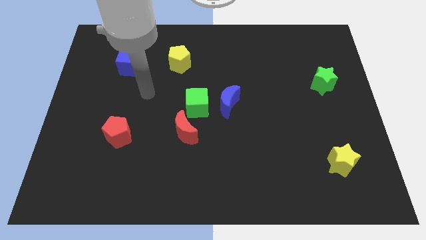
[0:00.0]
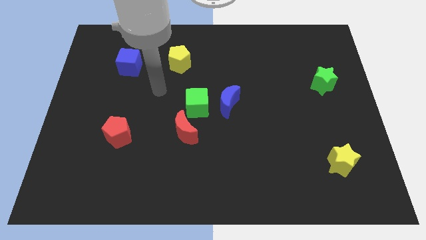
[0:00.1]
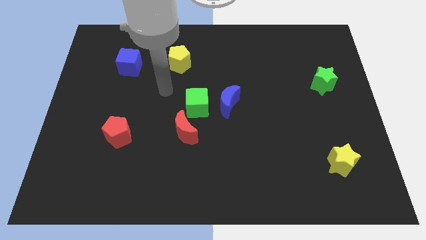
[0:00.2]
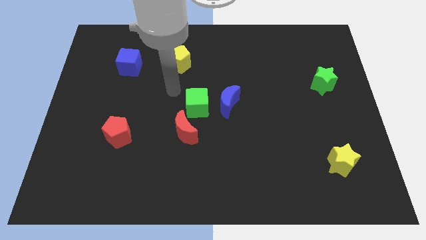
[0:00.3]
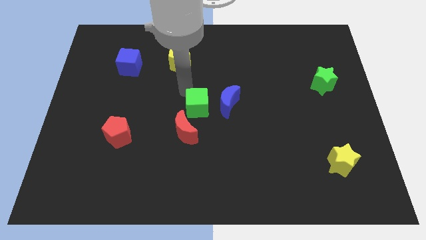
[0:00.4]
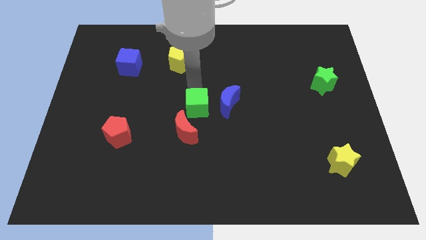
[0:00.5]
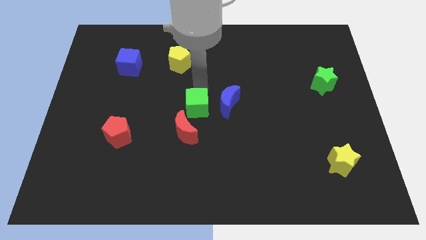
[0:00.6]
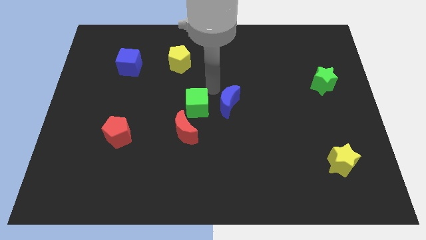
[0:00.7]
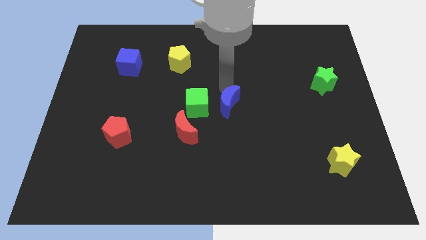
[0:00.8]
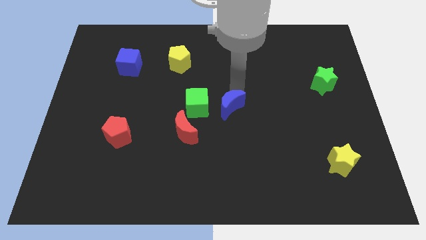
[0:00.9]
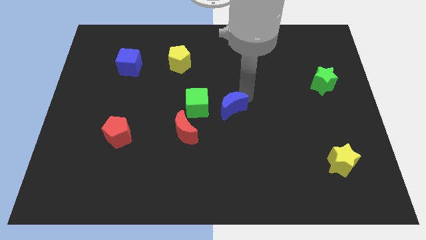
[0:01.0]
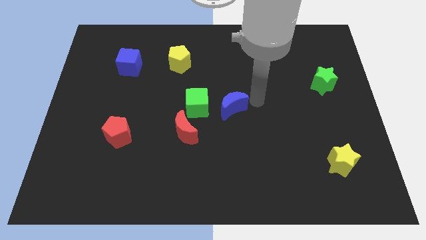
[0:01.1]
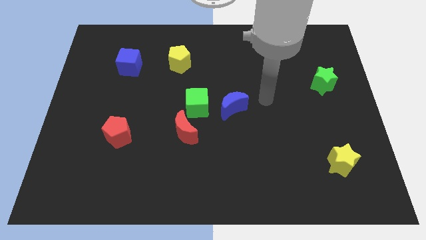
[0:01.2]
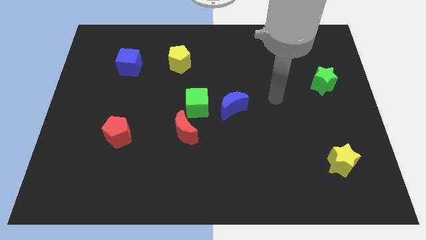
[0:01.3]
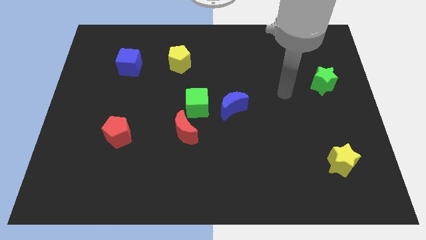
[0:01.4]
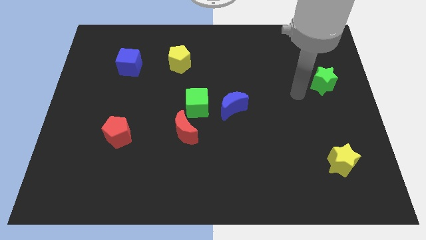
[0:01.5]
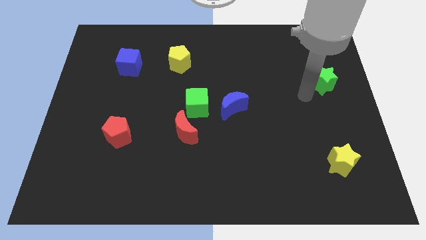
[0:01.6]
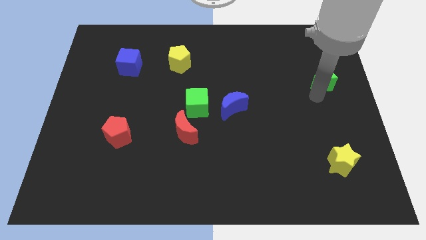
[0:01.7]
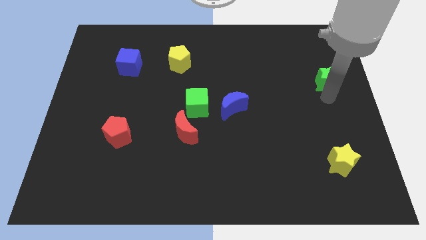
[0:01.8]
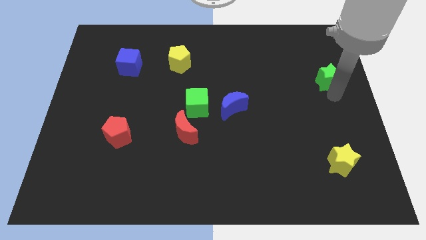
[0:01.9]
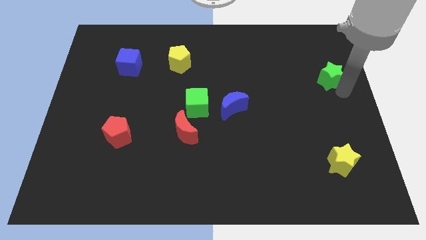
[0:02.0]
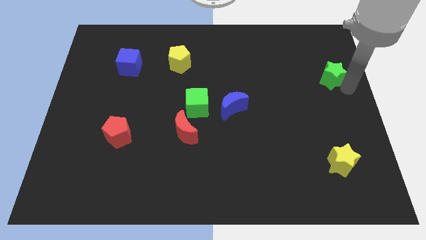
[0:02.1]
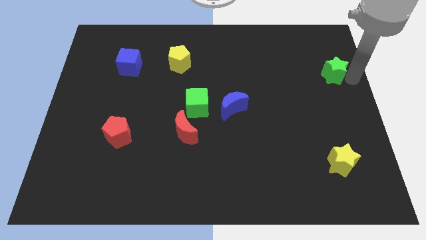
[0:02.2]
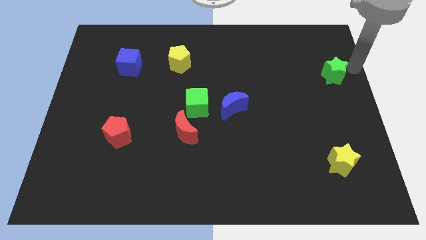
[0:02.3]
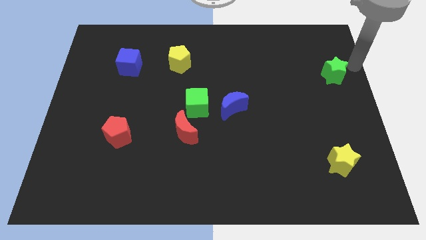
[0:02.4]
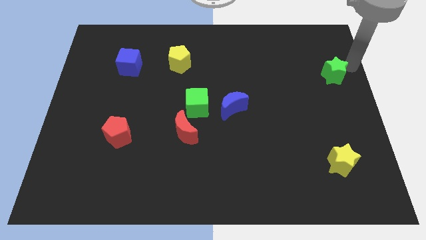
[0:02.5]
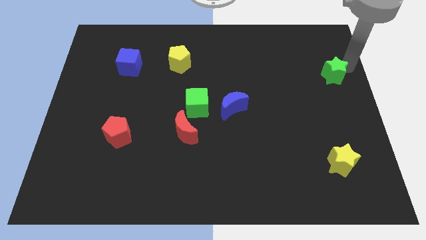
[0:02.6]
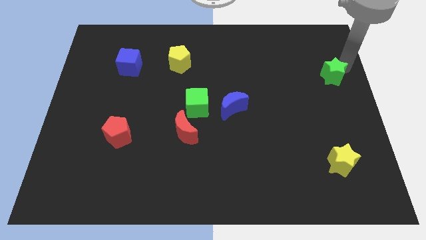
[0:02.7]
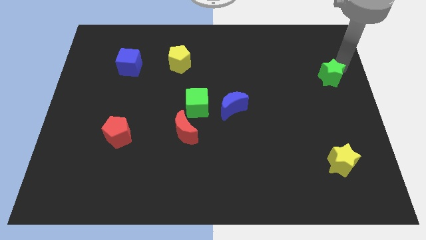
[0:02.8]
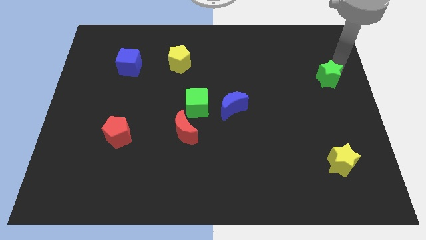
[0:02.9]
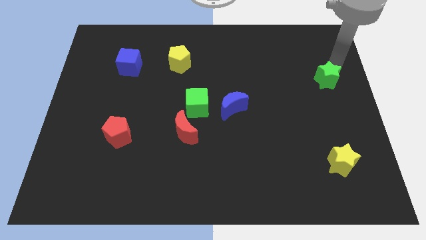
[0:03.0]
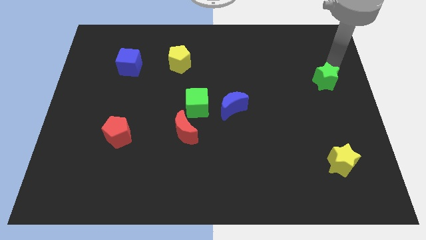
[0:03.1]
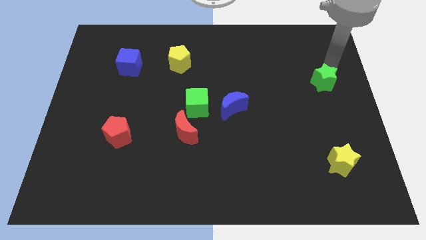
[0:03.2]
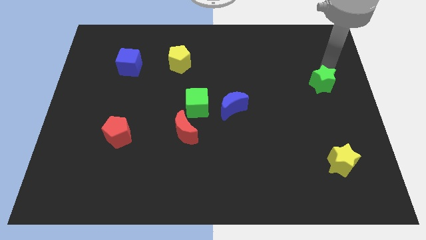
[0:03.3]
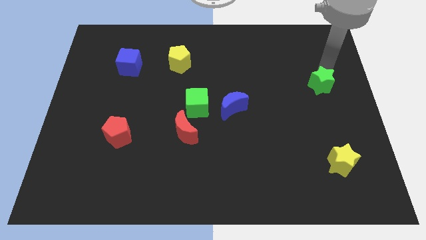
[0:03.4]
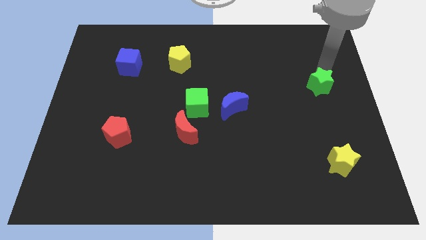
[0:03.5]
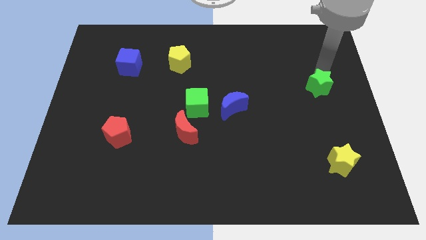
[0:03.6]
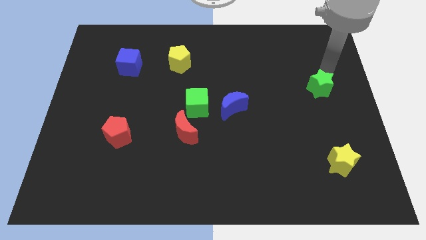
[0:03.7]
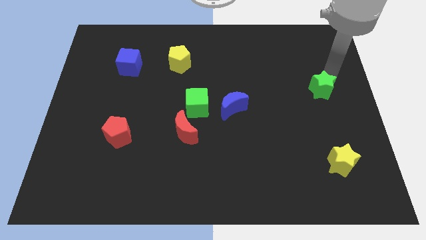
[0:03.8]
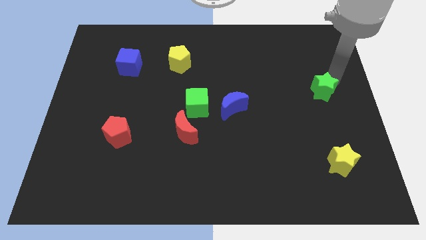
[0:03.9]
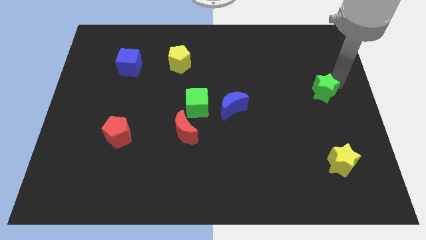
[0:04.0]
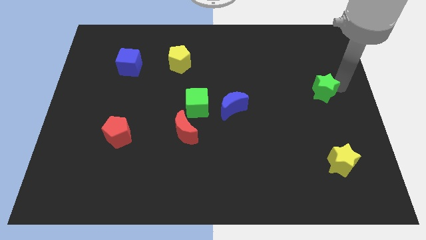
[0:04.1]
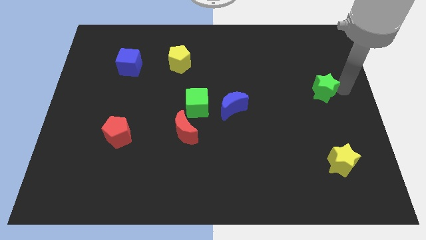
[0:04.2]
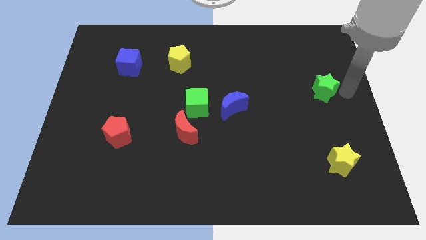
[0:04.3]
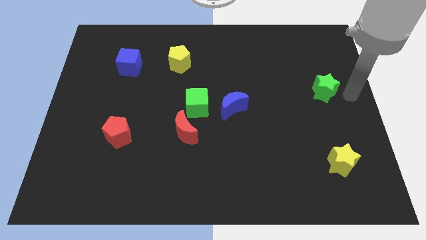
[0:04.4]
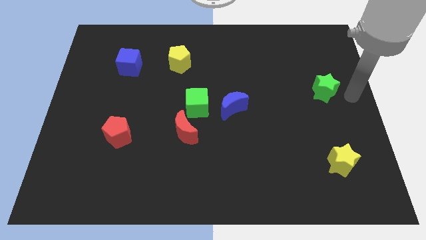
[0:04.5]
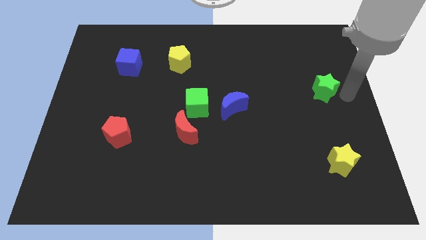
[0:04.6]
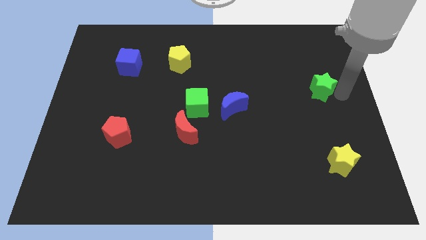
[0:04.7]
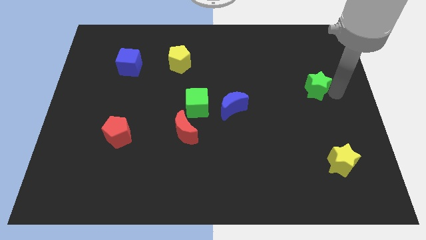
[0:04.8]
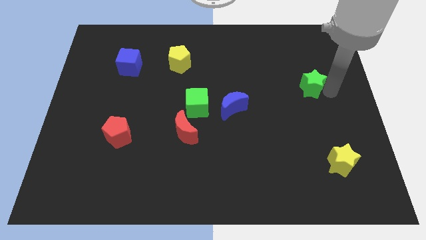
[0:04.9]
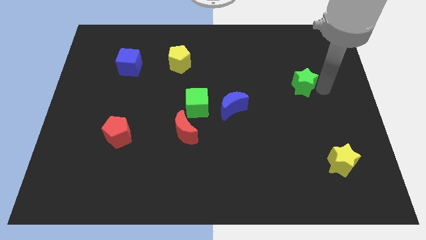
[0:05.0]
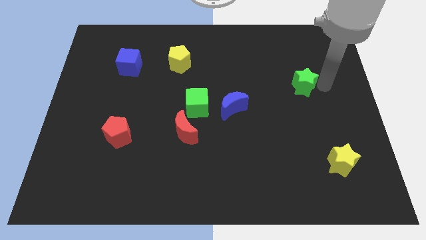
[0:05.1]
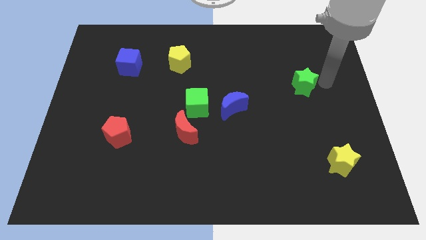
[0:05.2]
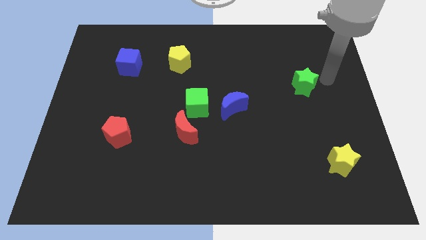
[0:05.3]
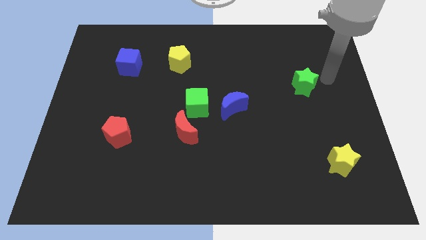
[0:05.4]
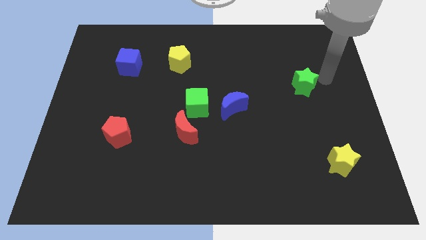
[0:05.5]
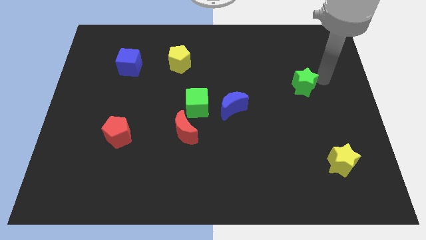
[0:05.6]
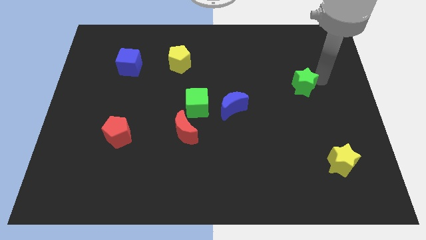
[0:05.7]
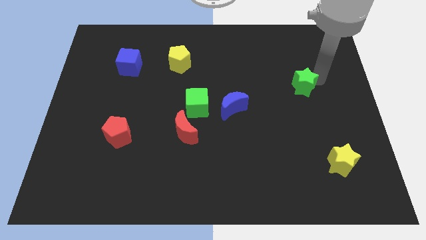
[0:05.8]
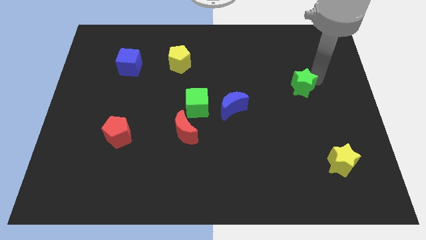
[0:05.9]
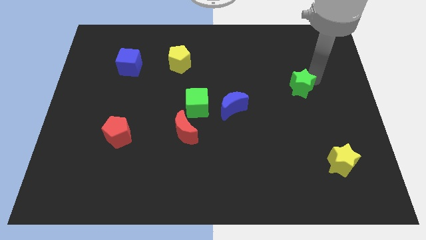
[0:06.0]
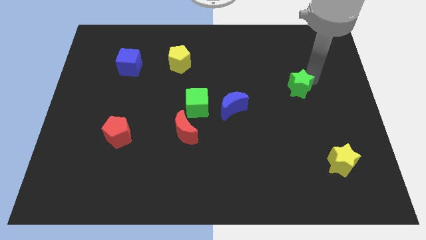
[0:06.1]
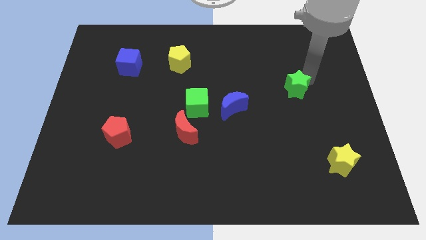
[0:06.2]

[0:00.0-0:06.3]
slightly move the green star to the left

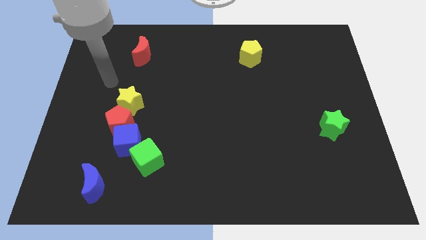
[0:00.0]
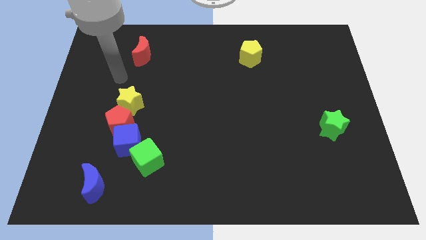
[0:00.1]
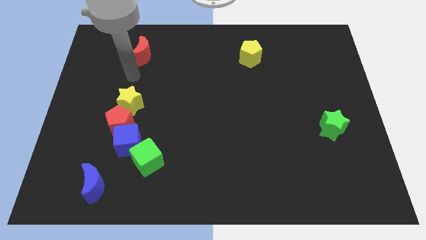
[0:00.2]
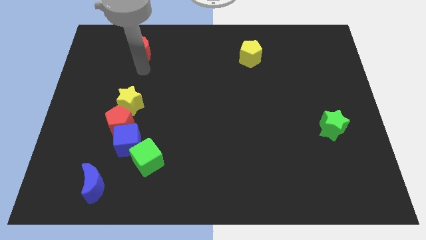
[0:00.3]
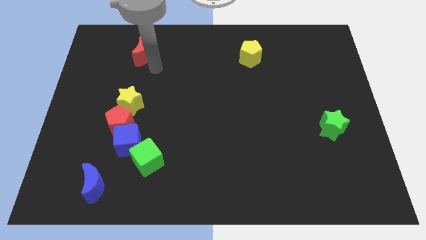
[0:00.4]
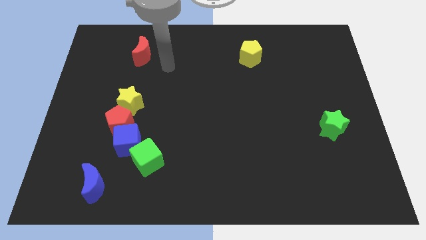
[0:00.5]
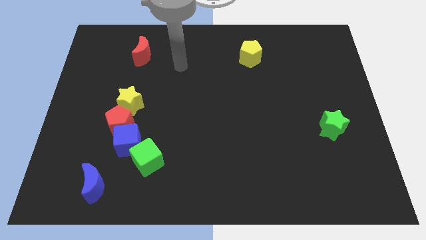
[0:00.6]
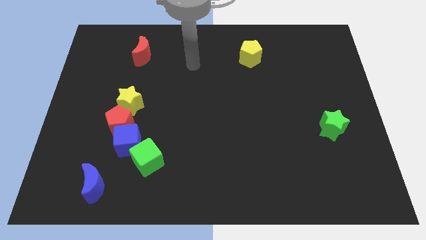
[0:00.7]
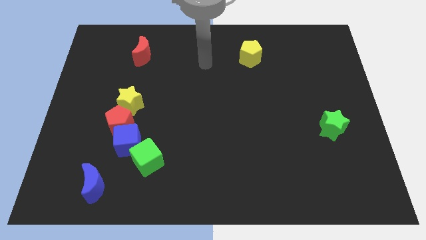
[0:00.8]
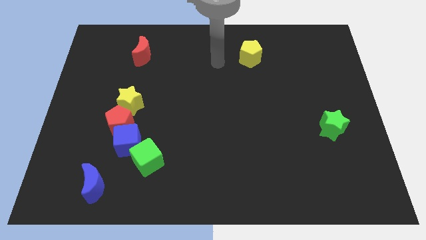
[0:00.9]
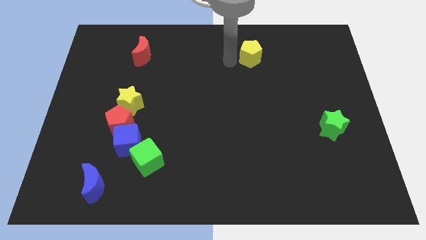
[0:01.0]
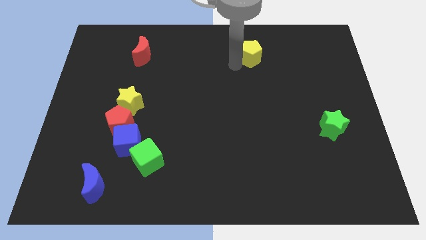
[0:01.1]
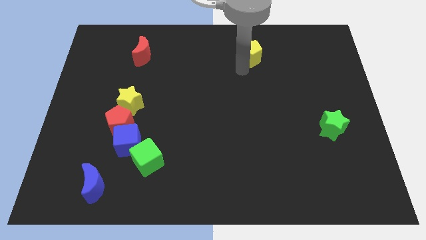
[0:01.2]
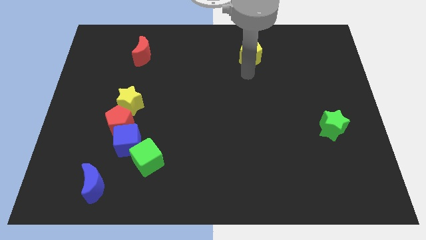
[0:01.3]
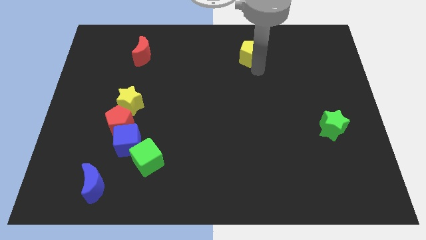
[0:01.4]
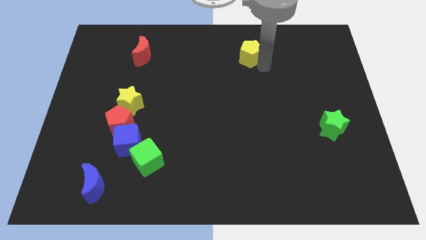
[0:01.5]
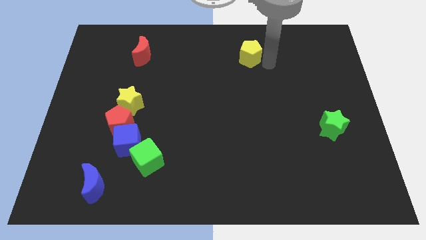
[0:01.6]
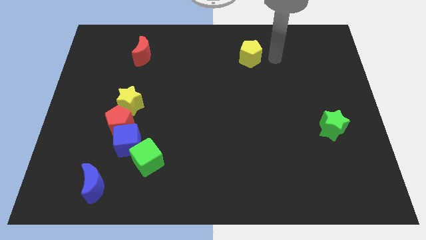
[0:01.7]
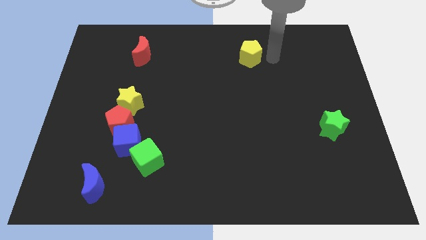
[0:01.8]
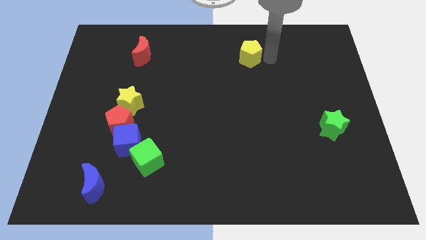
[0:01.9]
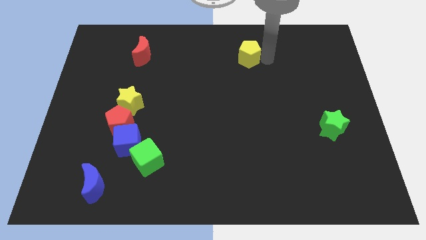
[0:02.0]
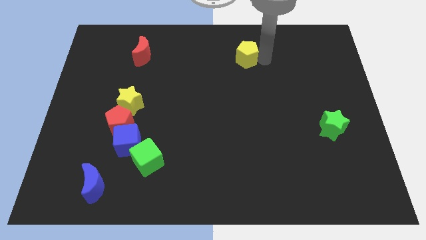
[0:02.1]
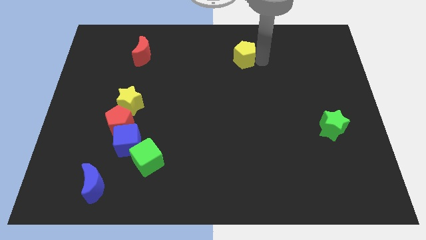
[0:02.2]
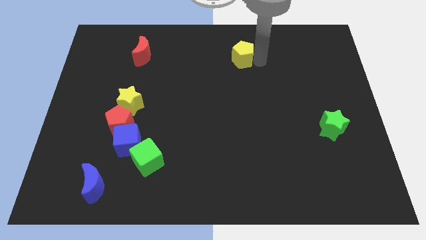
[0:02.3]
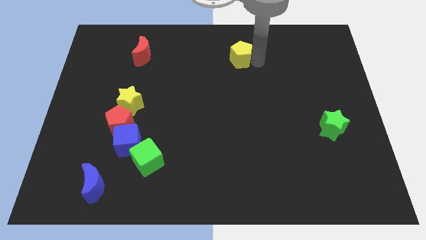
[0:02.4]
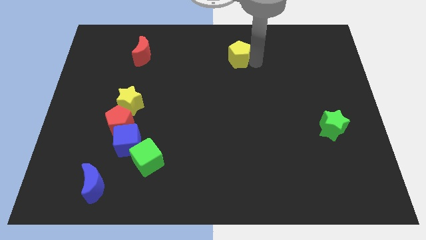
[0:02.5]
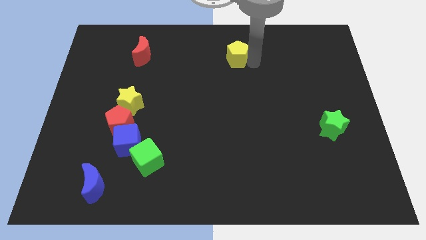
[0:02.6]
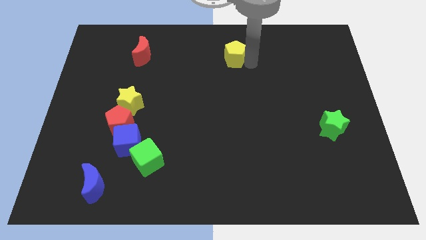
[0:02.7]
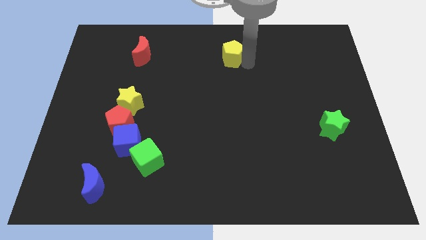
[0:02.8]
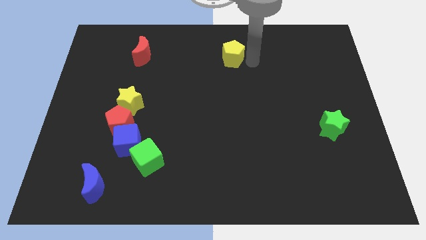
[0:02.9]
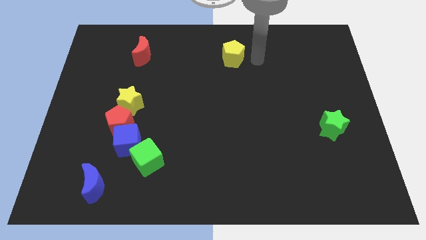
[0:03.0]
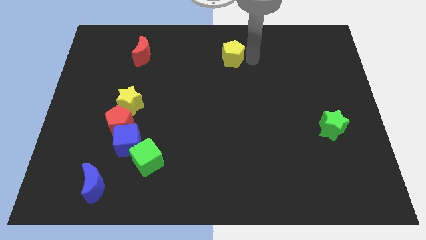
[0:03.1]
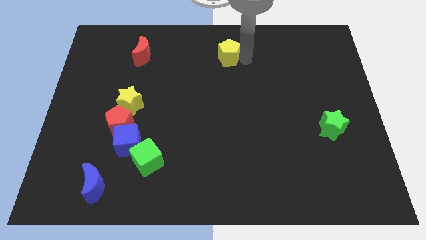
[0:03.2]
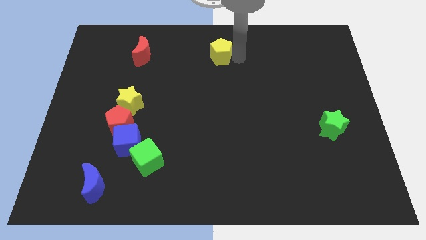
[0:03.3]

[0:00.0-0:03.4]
move the yellow pentagon a little bit to the left
